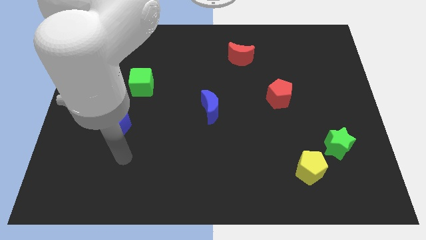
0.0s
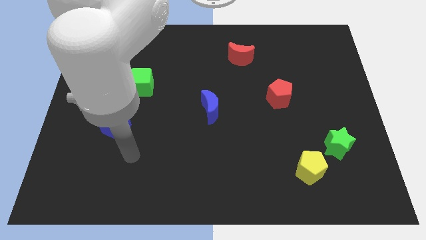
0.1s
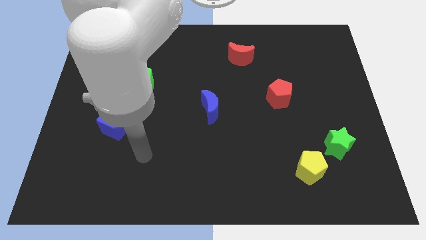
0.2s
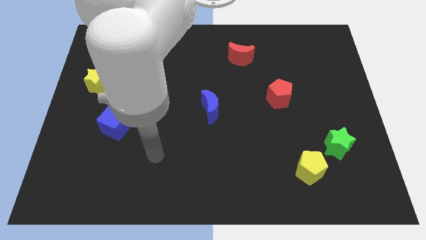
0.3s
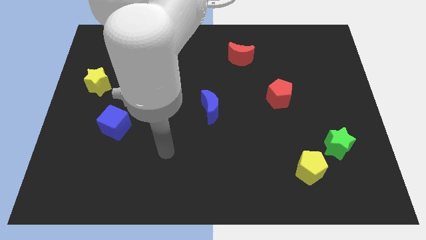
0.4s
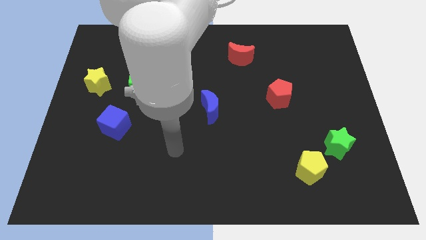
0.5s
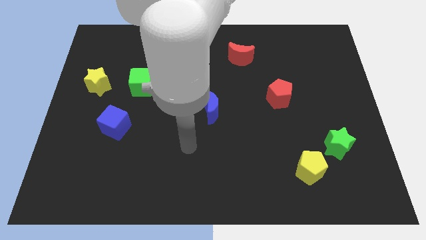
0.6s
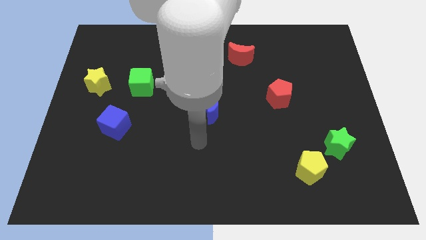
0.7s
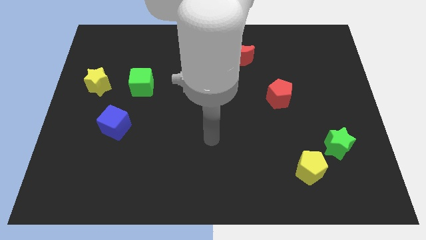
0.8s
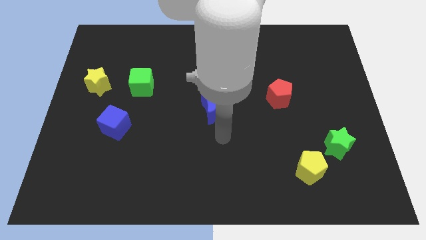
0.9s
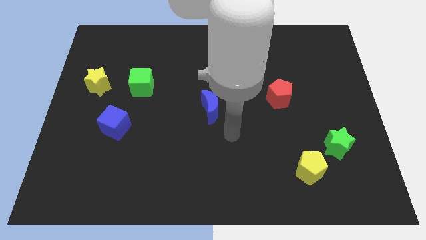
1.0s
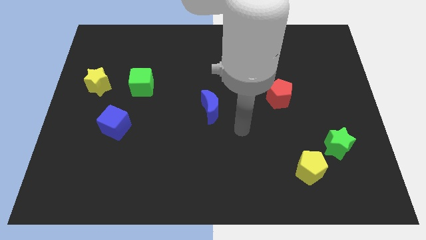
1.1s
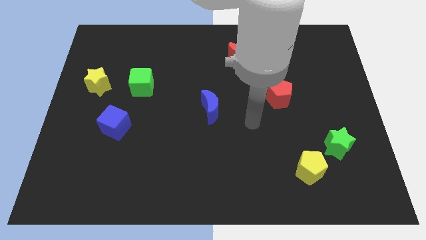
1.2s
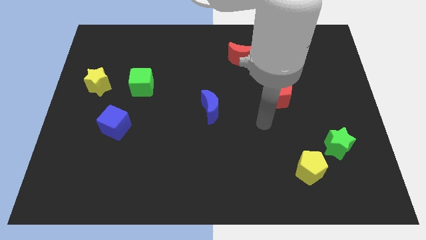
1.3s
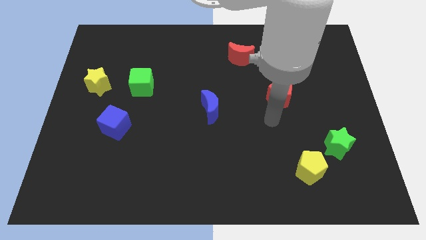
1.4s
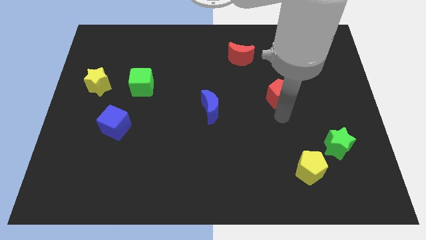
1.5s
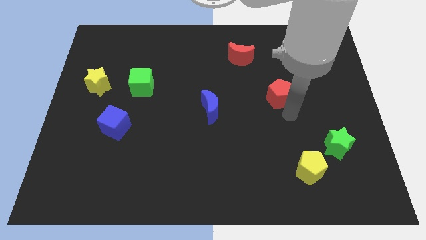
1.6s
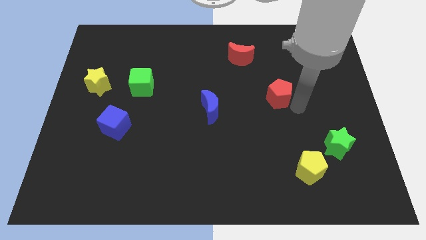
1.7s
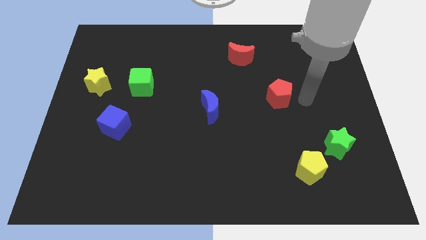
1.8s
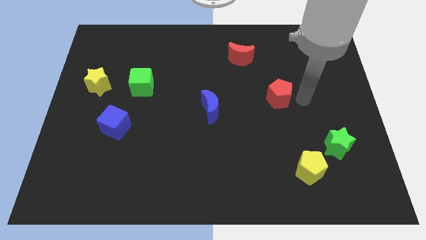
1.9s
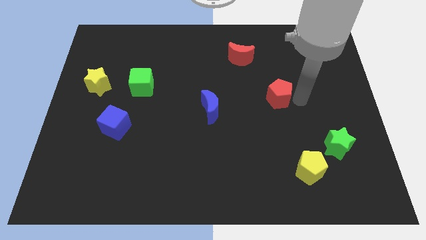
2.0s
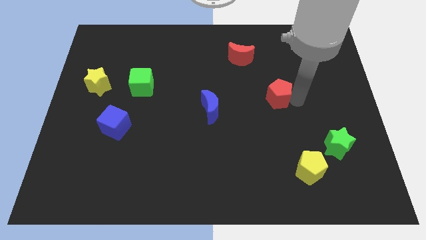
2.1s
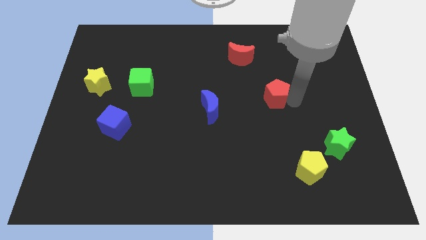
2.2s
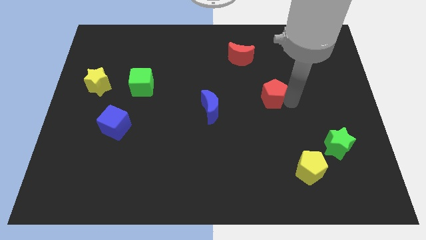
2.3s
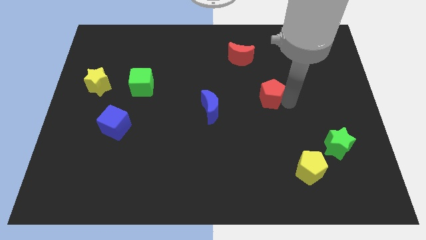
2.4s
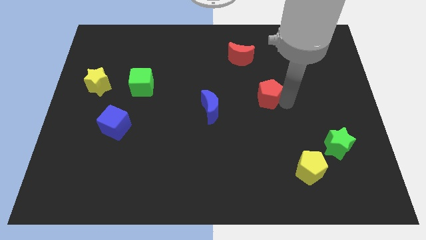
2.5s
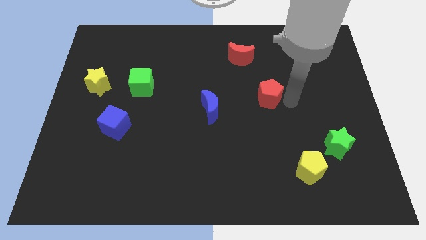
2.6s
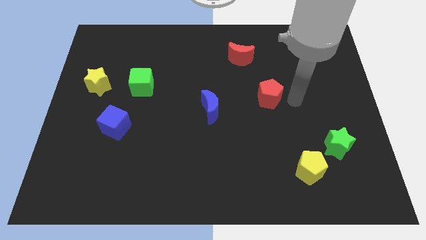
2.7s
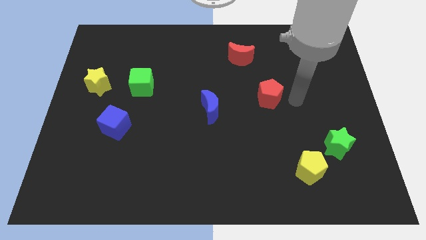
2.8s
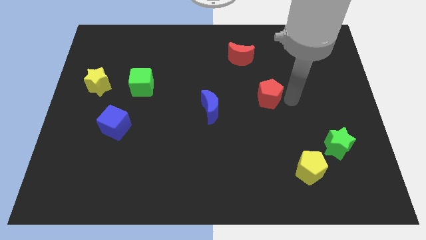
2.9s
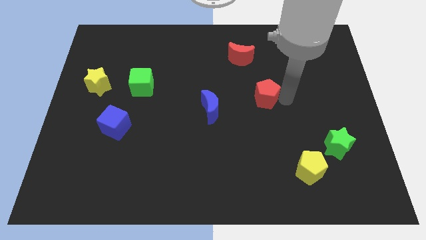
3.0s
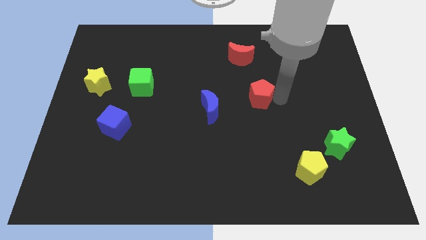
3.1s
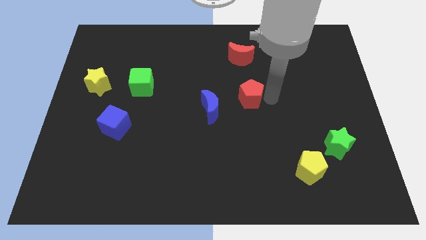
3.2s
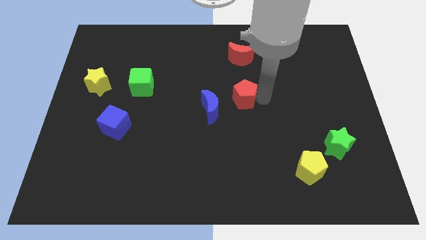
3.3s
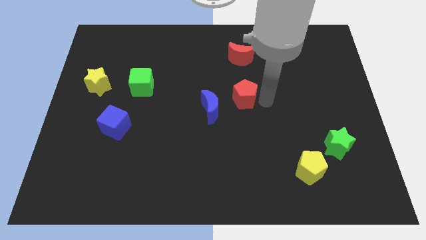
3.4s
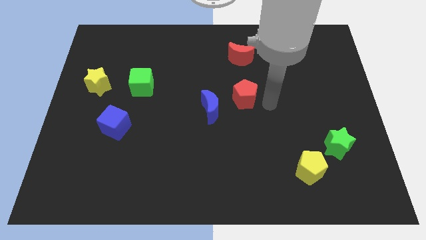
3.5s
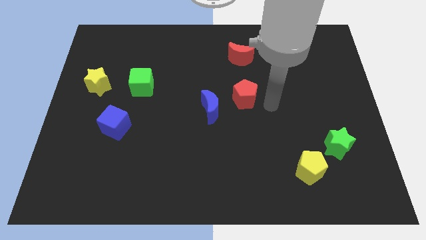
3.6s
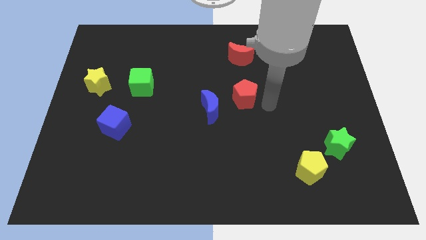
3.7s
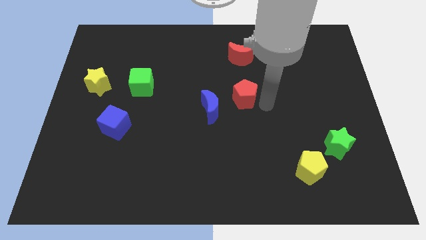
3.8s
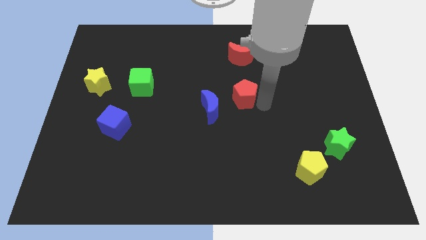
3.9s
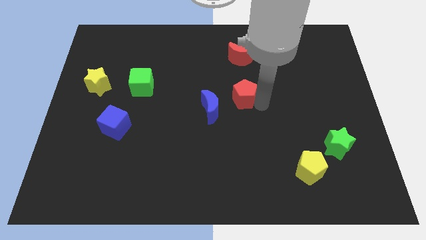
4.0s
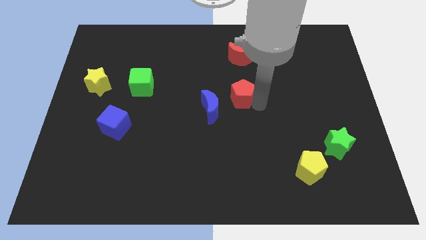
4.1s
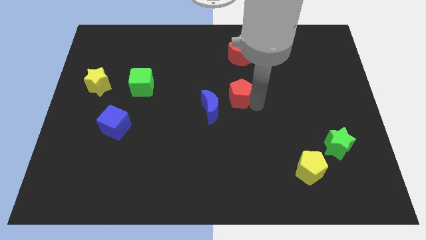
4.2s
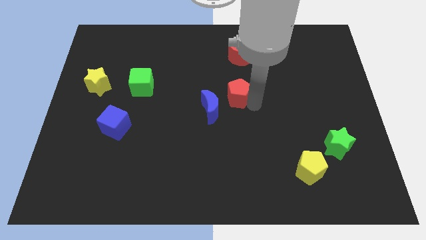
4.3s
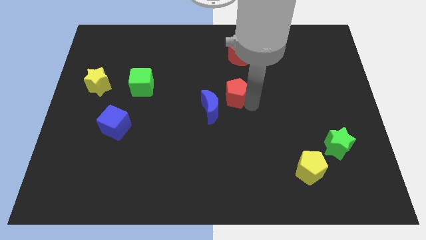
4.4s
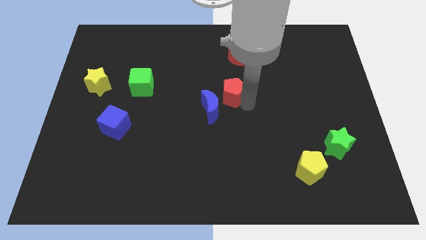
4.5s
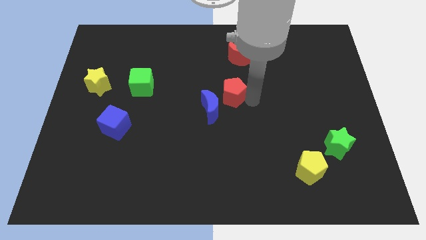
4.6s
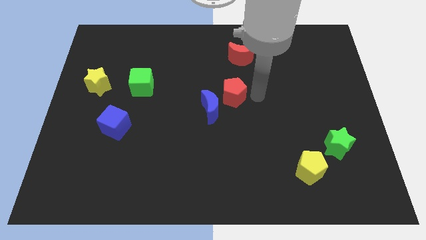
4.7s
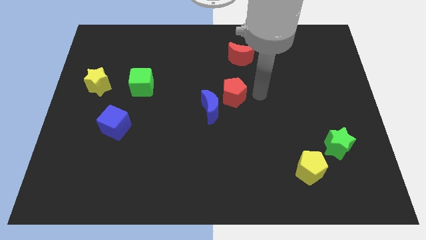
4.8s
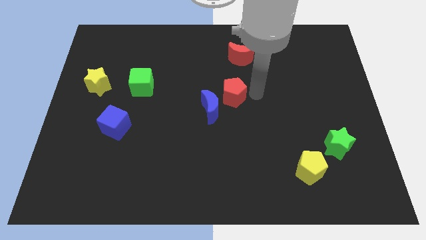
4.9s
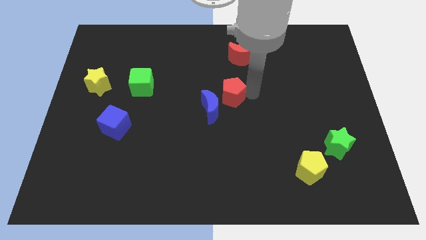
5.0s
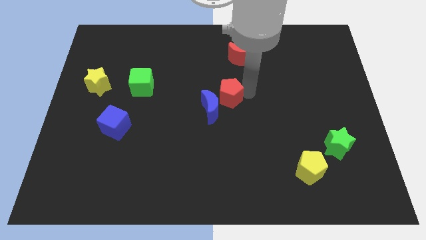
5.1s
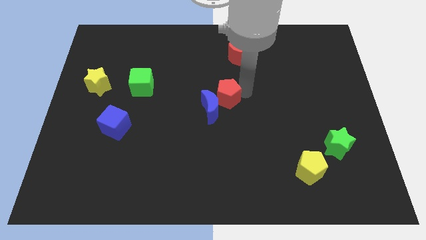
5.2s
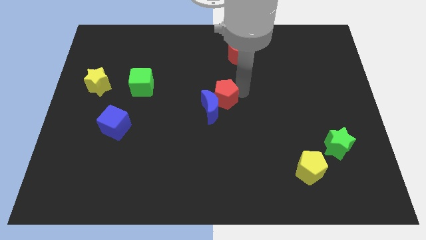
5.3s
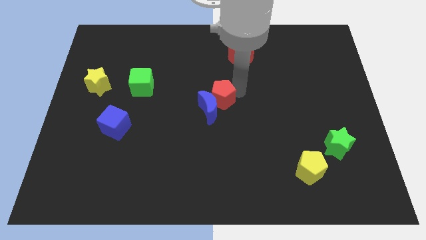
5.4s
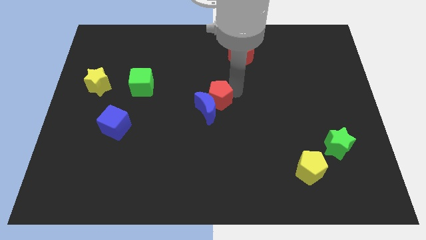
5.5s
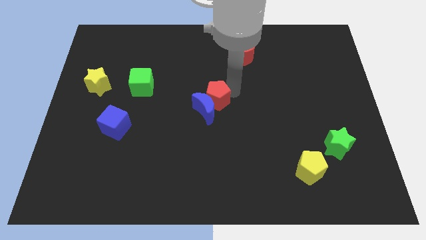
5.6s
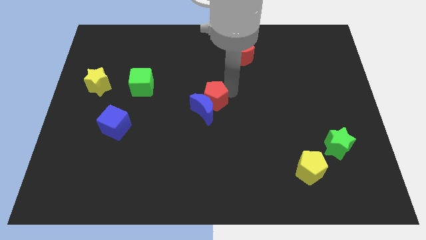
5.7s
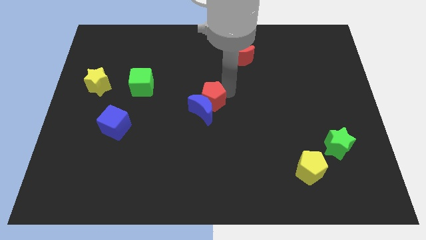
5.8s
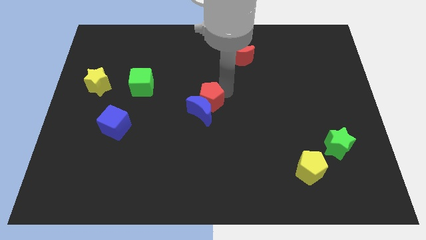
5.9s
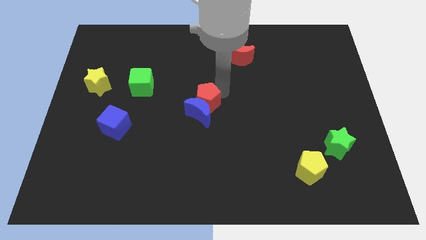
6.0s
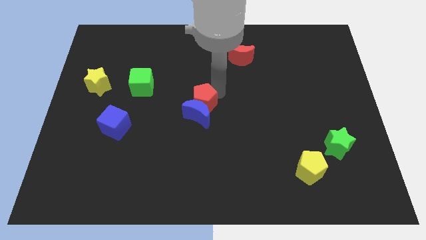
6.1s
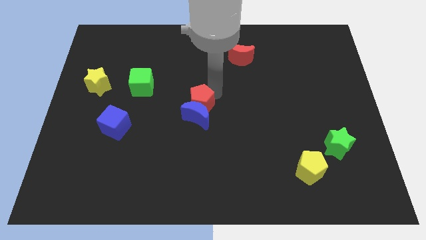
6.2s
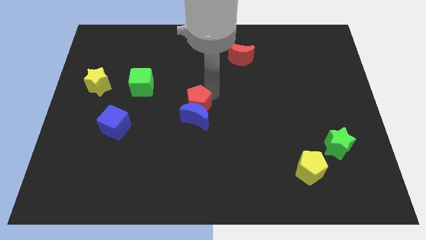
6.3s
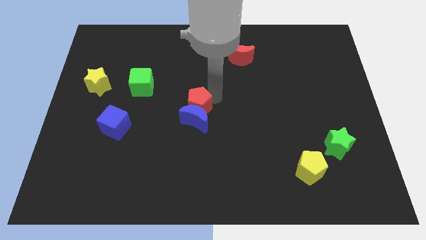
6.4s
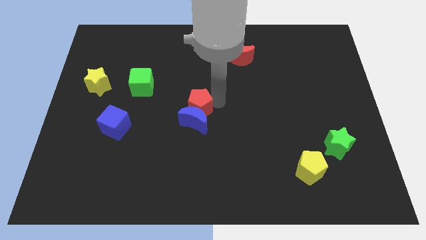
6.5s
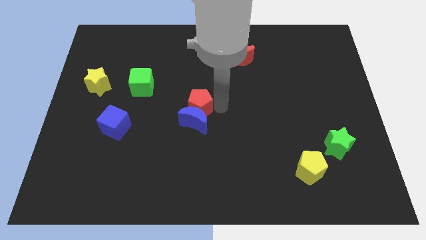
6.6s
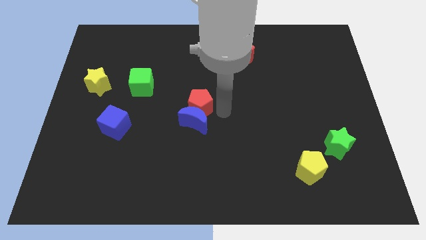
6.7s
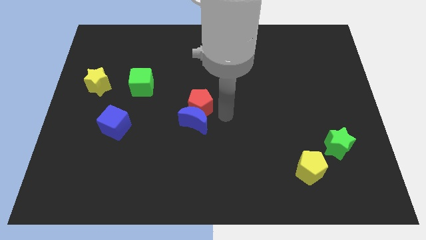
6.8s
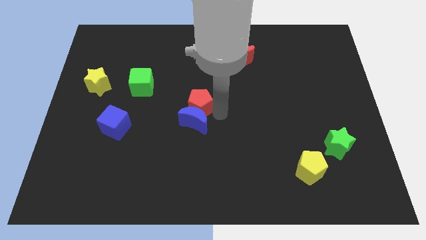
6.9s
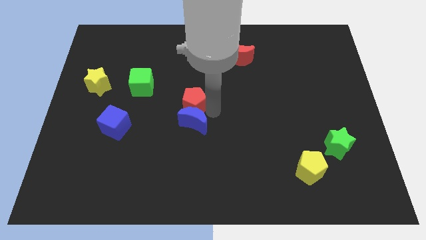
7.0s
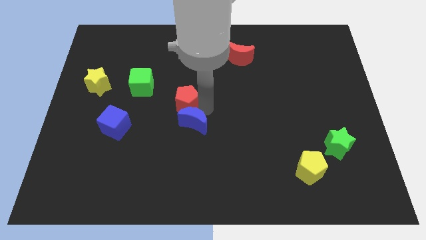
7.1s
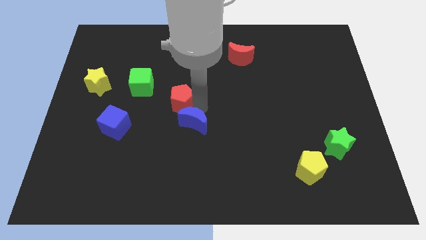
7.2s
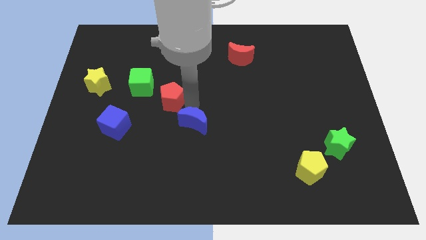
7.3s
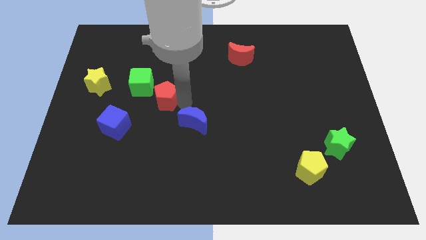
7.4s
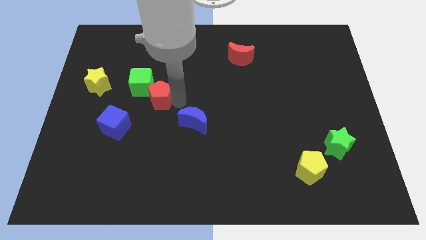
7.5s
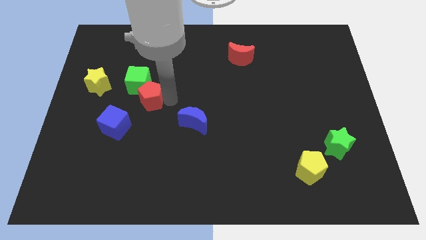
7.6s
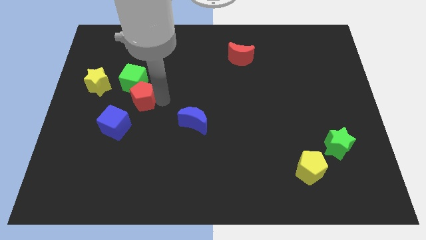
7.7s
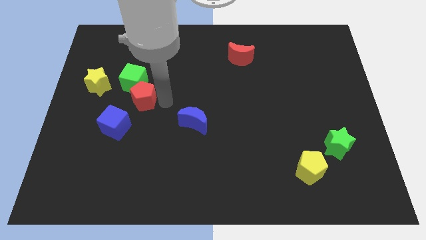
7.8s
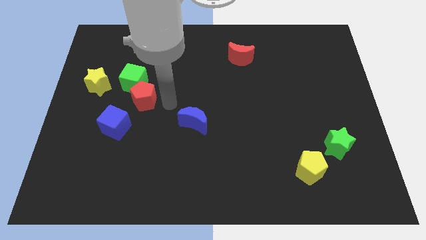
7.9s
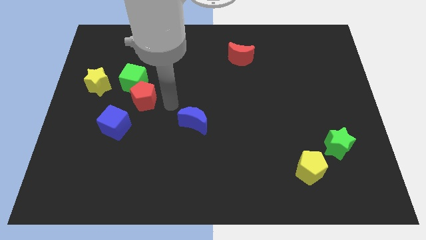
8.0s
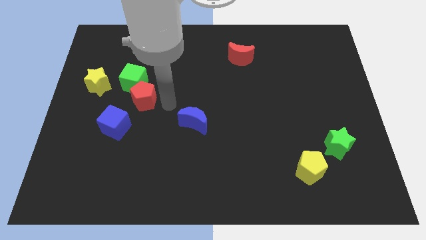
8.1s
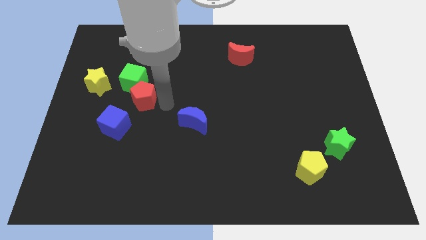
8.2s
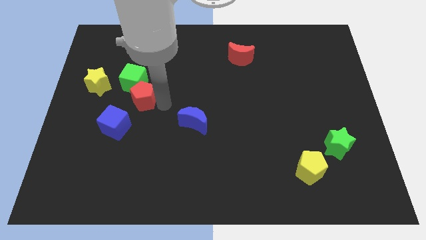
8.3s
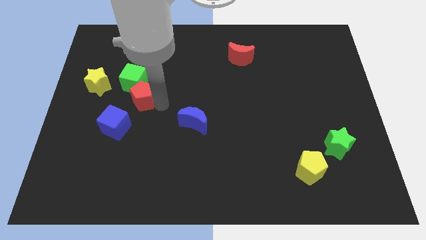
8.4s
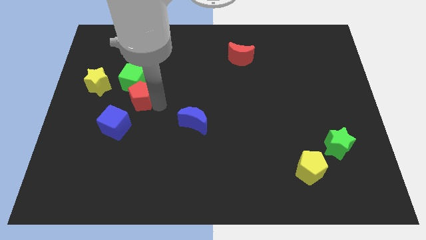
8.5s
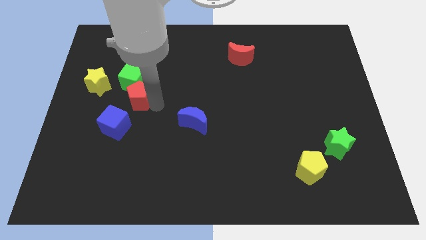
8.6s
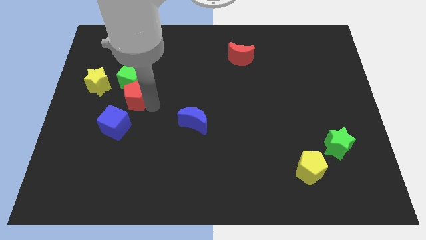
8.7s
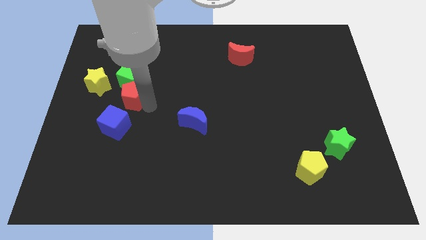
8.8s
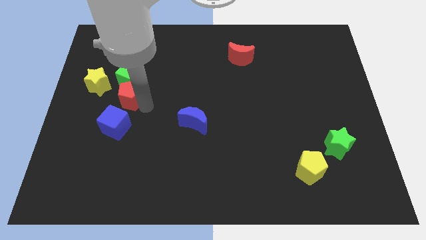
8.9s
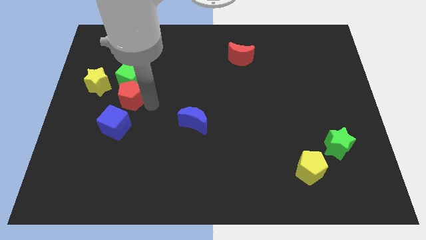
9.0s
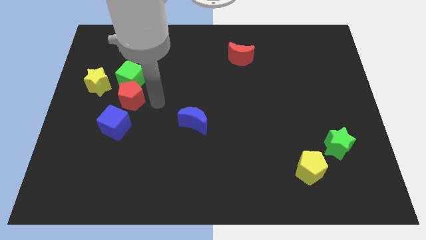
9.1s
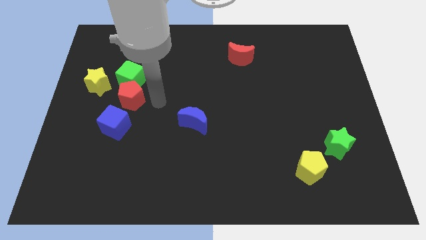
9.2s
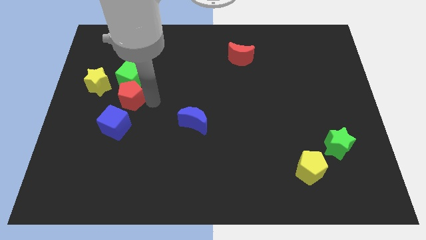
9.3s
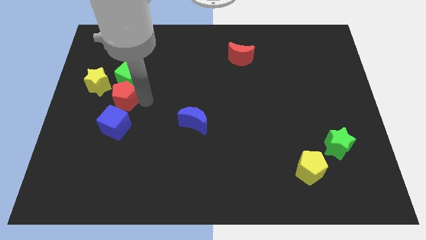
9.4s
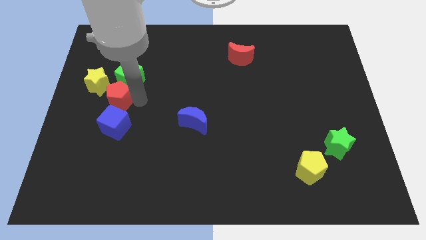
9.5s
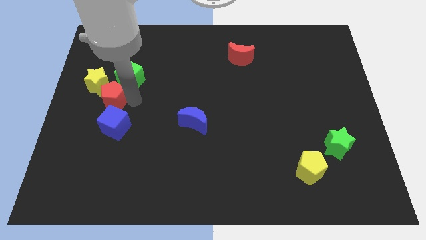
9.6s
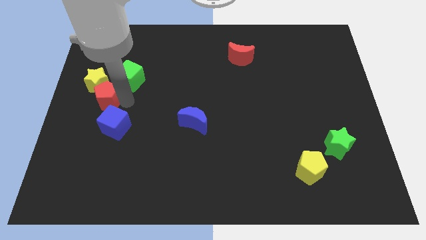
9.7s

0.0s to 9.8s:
move the red pentagon towards the yellow star
